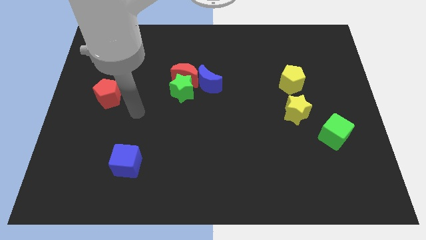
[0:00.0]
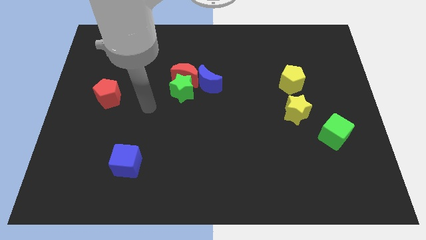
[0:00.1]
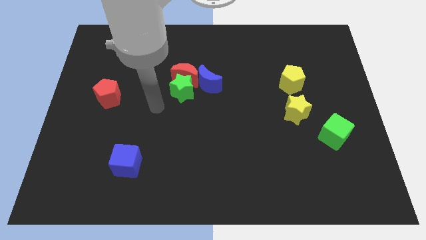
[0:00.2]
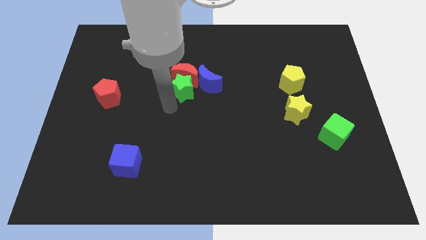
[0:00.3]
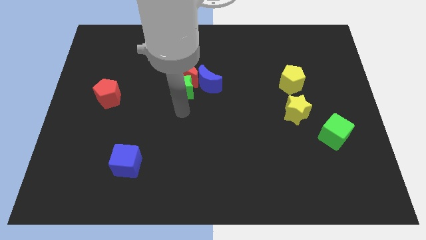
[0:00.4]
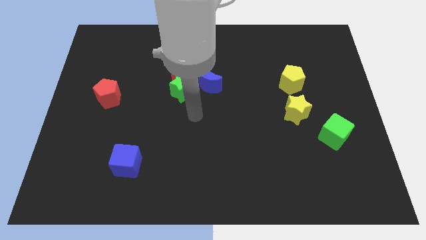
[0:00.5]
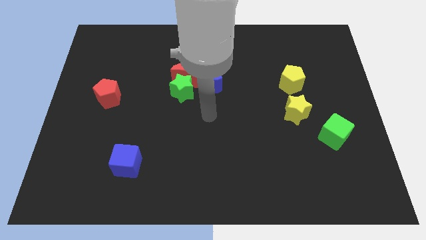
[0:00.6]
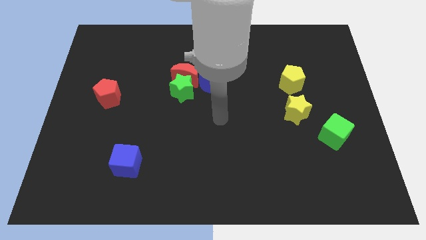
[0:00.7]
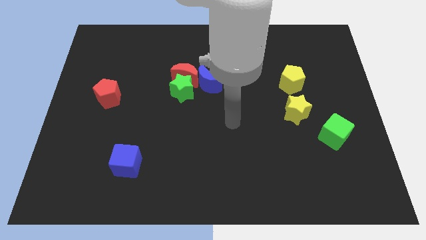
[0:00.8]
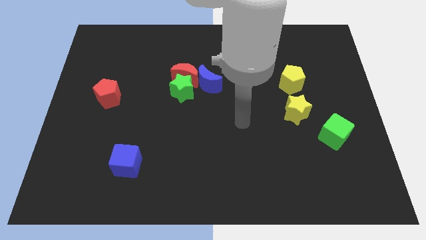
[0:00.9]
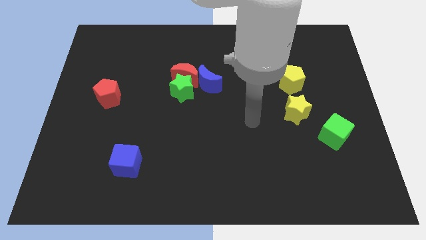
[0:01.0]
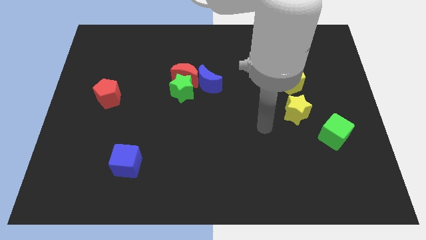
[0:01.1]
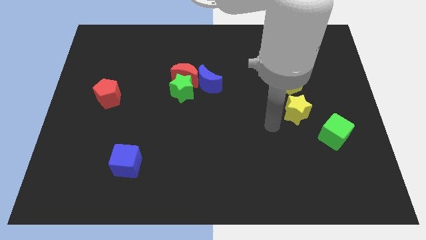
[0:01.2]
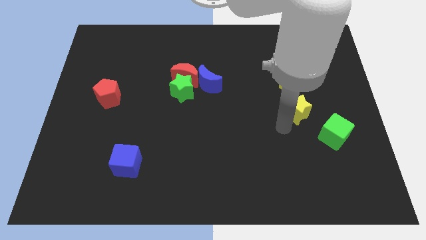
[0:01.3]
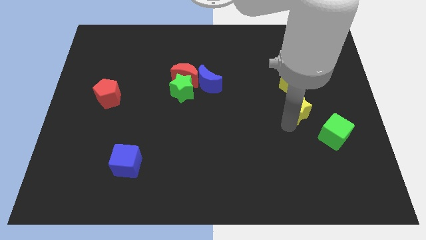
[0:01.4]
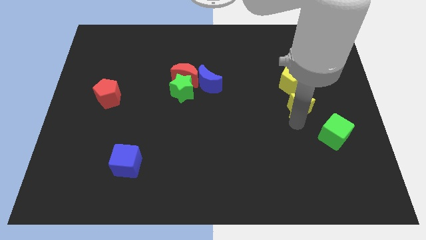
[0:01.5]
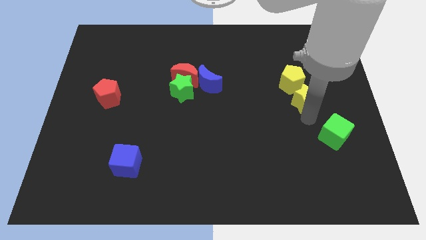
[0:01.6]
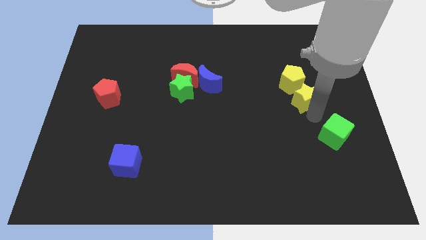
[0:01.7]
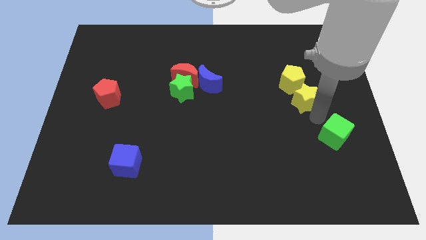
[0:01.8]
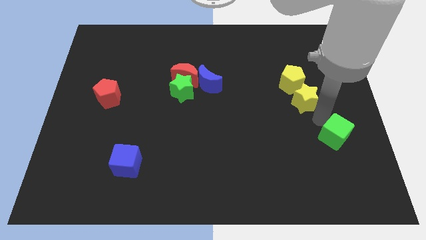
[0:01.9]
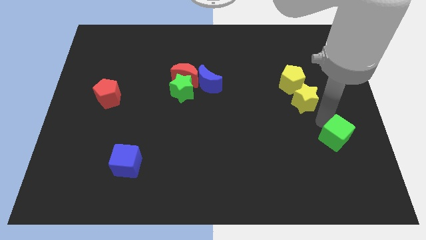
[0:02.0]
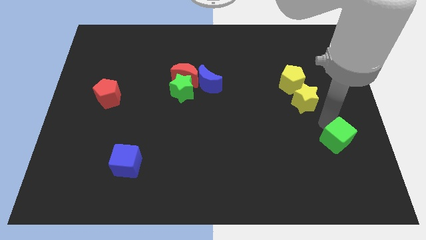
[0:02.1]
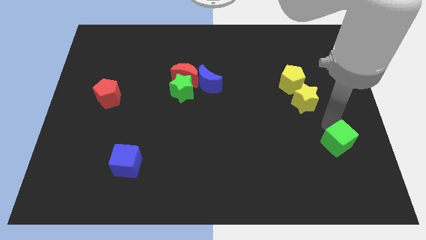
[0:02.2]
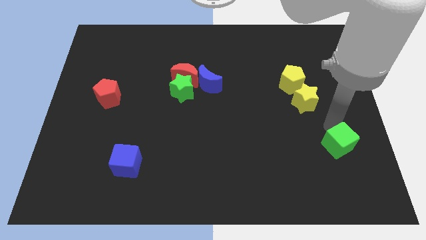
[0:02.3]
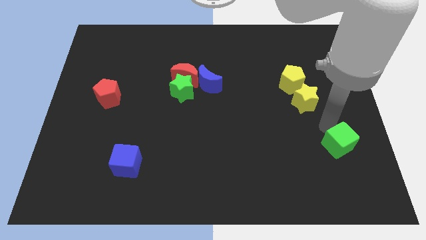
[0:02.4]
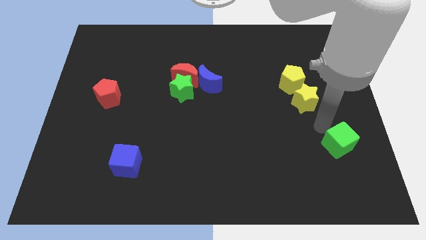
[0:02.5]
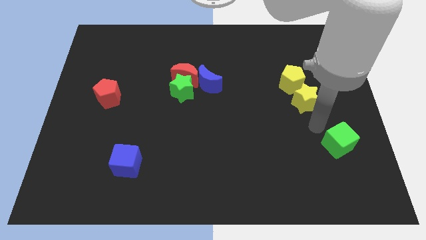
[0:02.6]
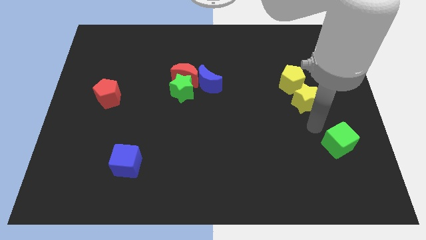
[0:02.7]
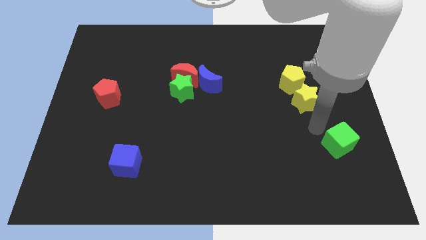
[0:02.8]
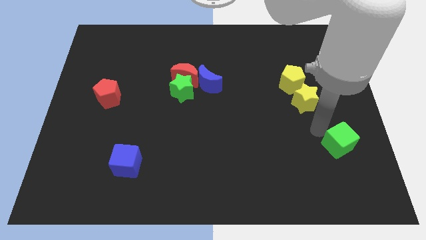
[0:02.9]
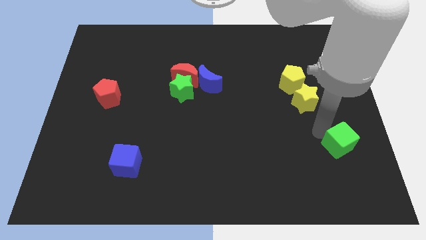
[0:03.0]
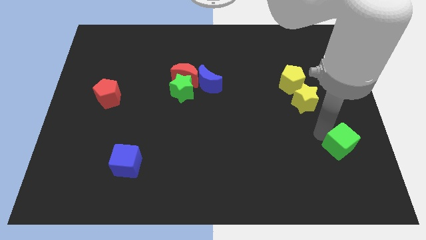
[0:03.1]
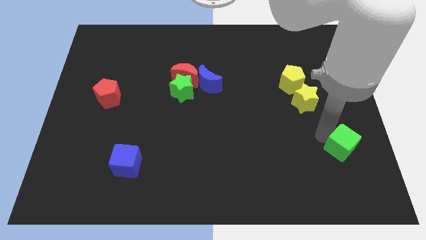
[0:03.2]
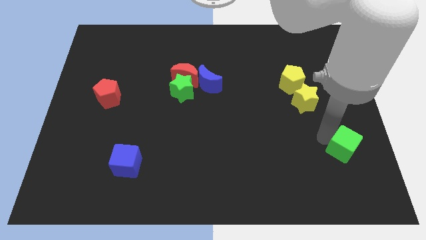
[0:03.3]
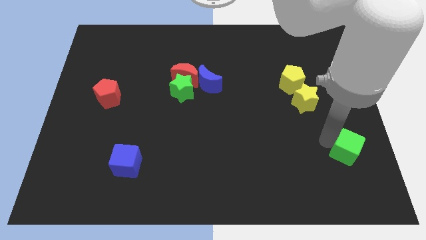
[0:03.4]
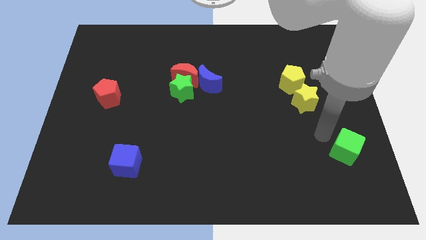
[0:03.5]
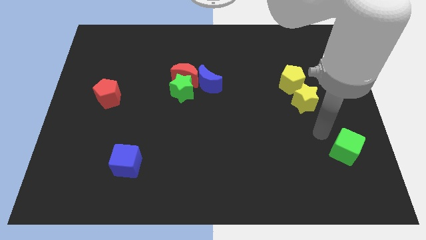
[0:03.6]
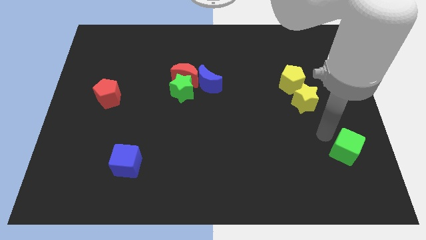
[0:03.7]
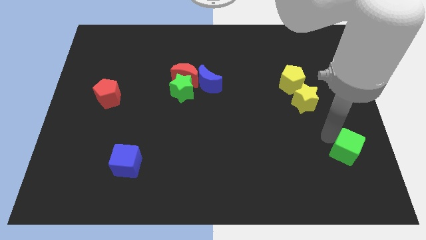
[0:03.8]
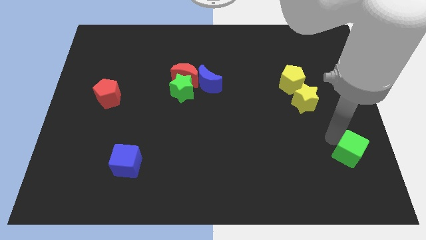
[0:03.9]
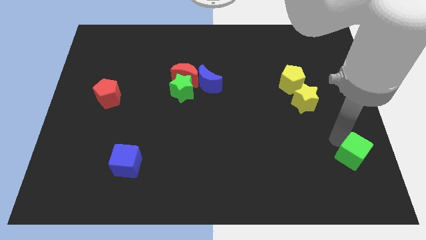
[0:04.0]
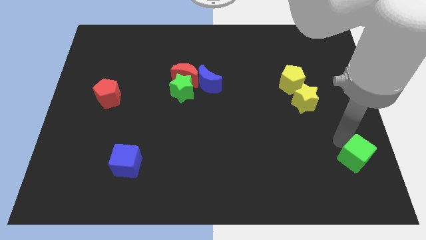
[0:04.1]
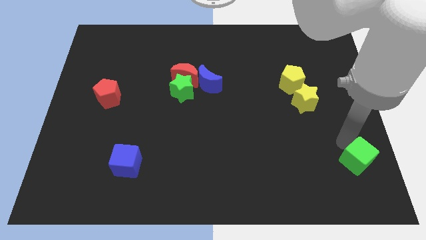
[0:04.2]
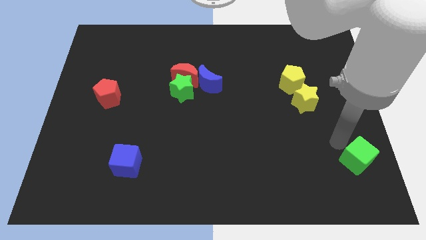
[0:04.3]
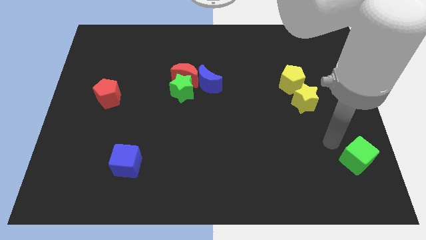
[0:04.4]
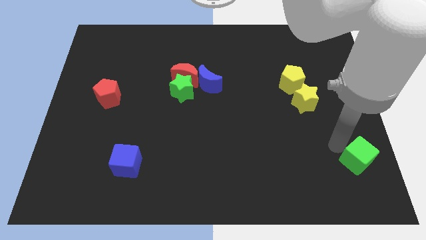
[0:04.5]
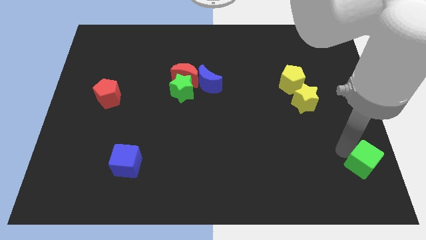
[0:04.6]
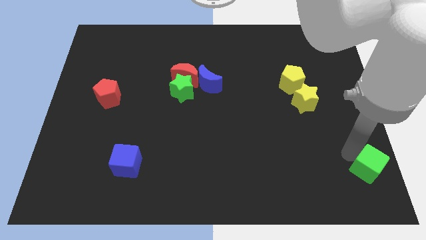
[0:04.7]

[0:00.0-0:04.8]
move the green cube to the bottom right corner

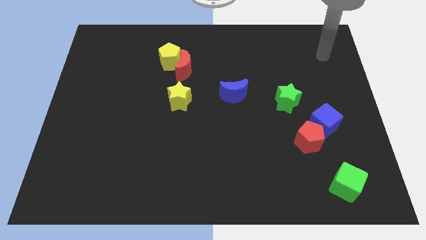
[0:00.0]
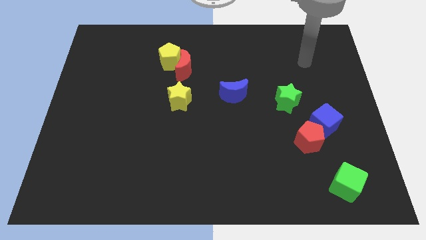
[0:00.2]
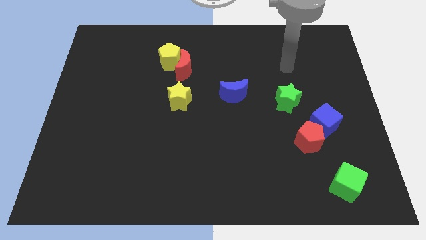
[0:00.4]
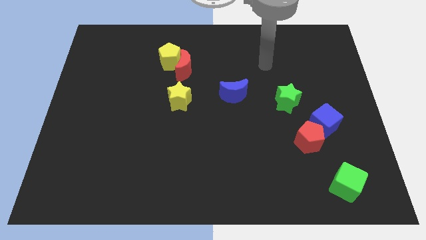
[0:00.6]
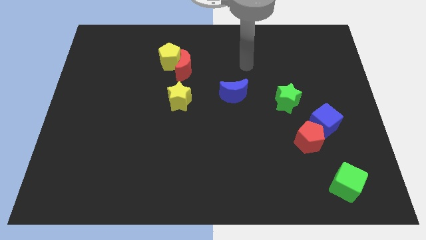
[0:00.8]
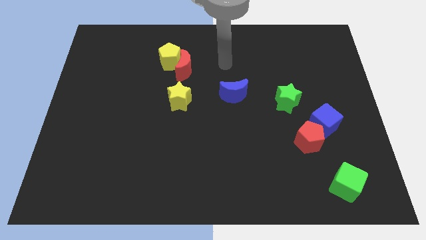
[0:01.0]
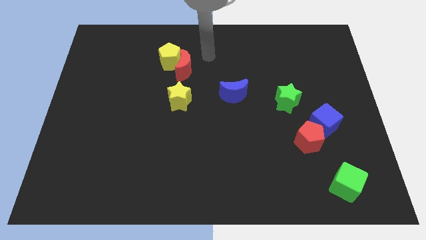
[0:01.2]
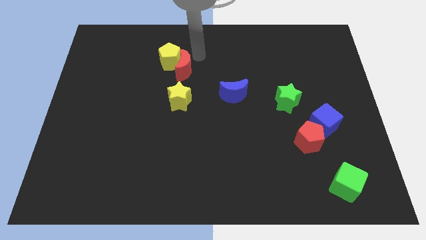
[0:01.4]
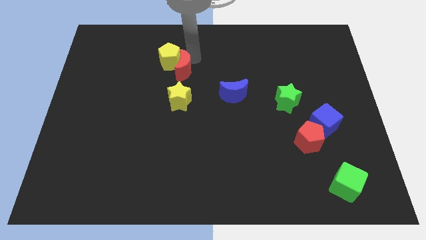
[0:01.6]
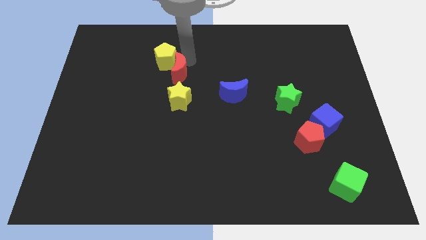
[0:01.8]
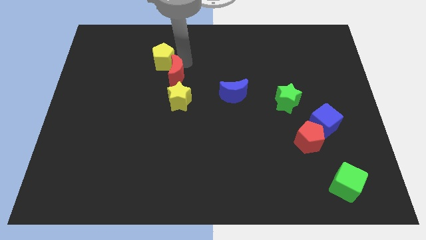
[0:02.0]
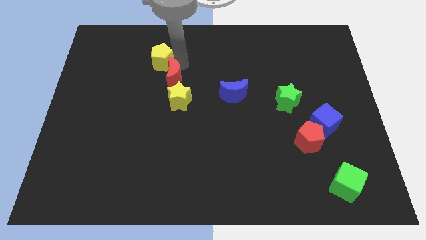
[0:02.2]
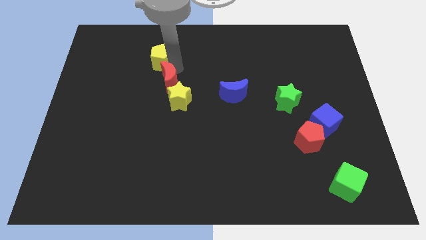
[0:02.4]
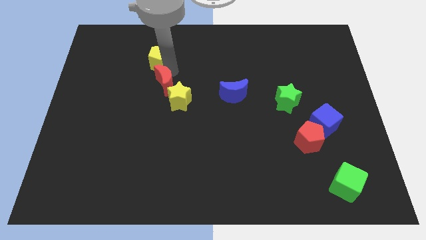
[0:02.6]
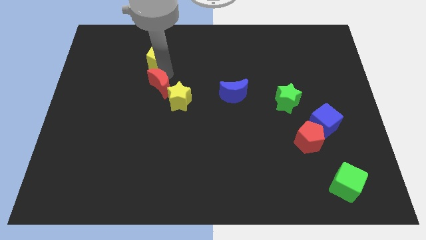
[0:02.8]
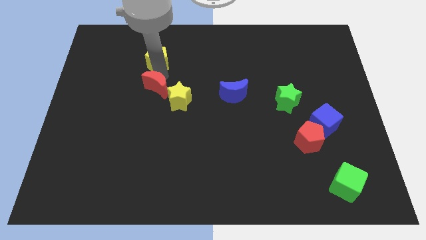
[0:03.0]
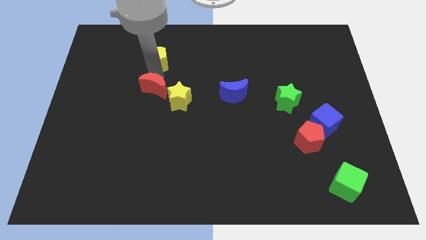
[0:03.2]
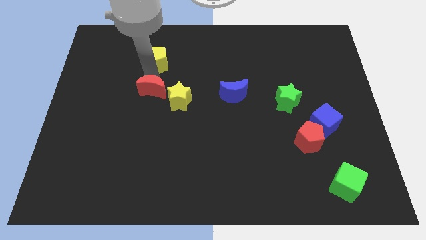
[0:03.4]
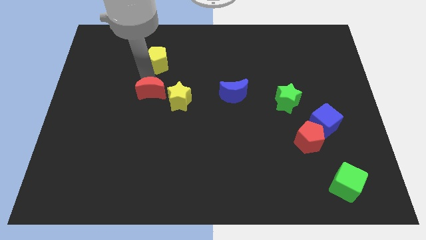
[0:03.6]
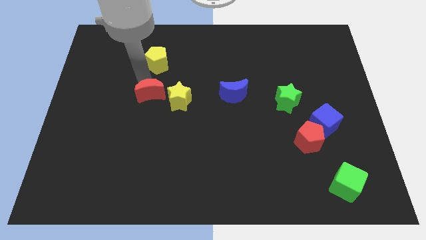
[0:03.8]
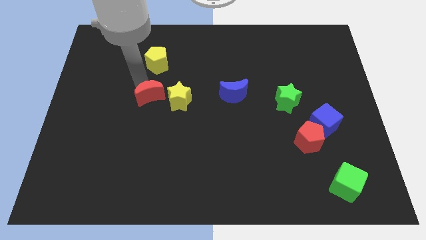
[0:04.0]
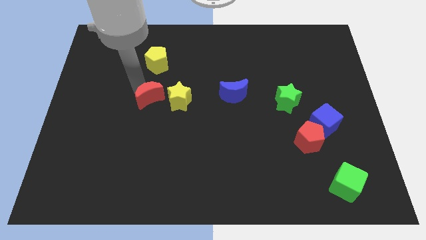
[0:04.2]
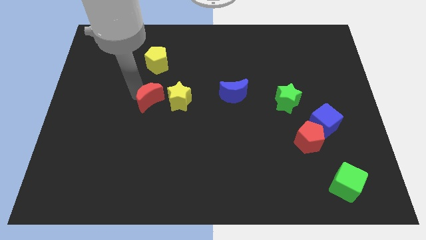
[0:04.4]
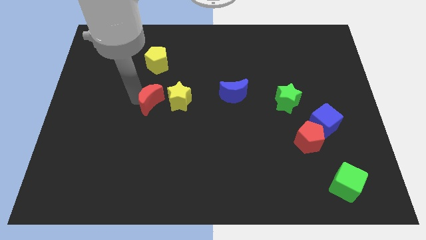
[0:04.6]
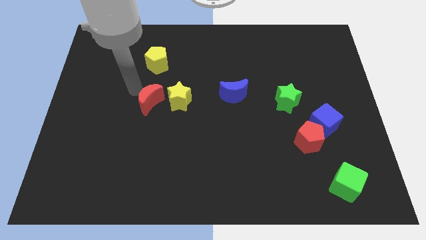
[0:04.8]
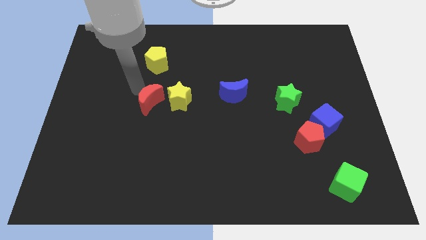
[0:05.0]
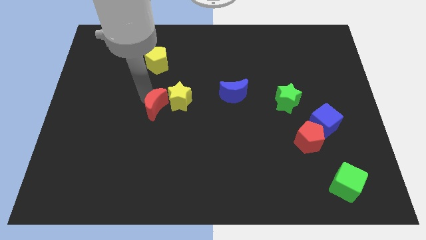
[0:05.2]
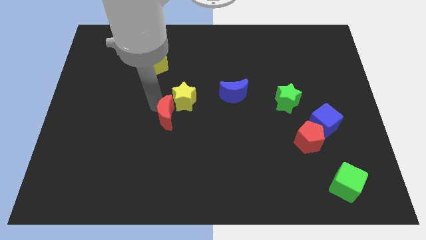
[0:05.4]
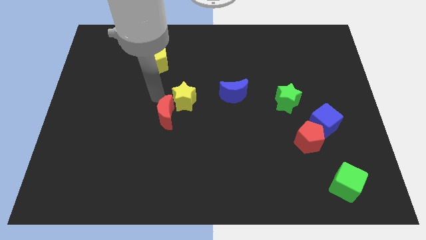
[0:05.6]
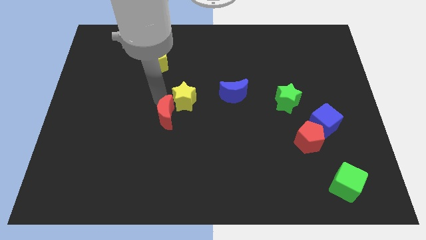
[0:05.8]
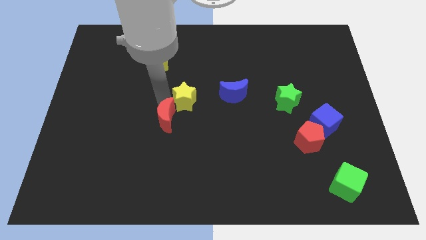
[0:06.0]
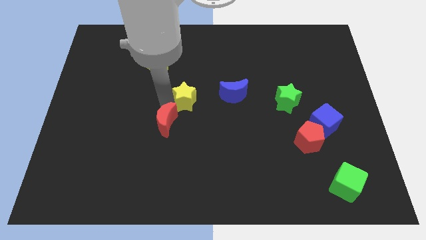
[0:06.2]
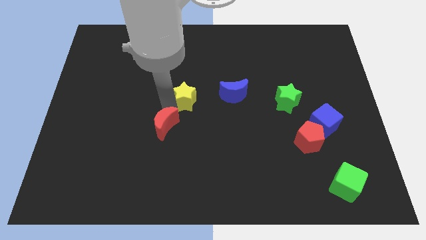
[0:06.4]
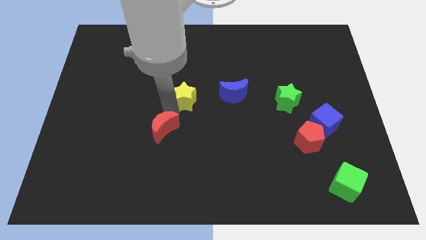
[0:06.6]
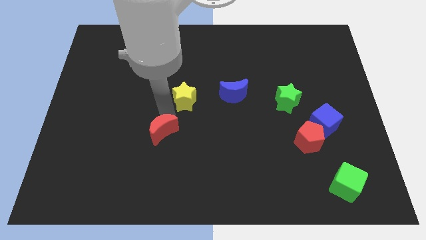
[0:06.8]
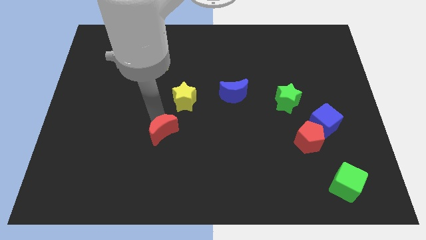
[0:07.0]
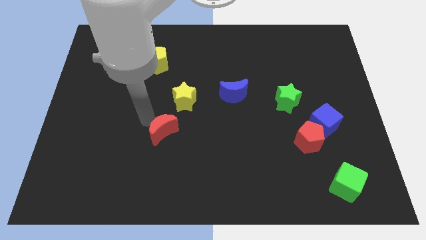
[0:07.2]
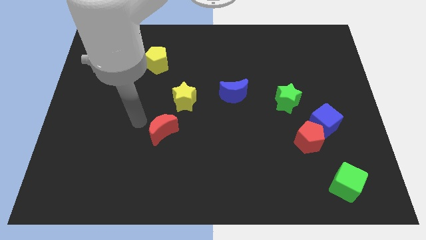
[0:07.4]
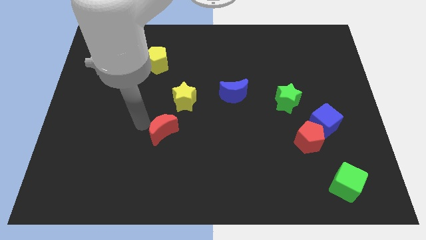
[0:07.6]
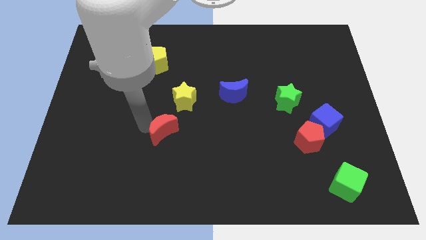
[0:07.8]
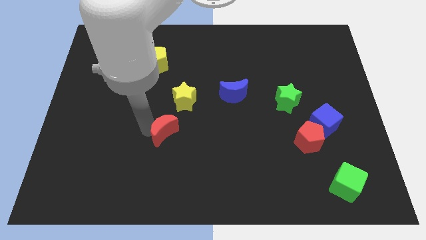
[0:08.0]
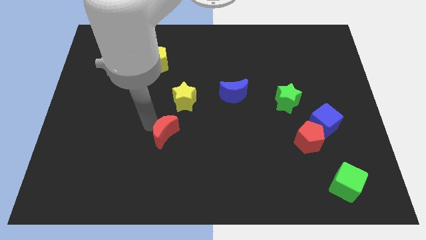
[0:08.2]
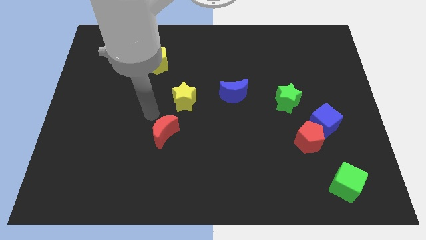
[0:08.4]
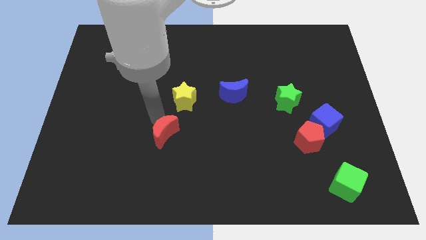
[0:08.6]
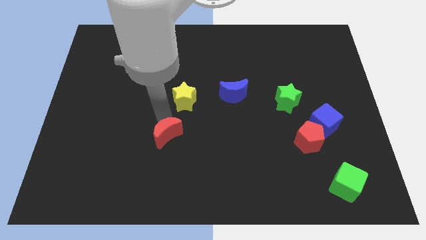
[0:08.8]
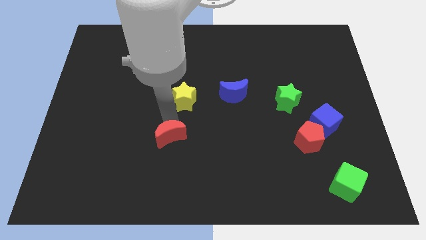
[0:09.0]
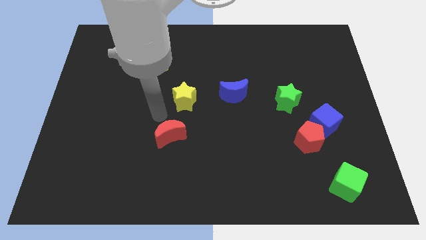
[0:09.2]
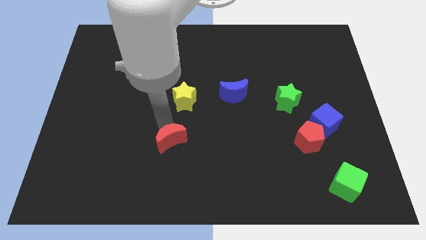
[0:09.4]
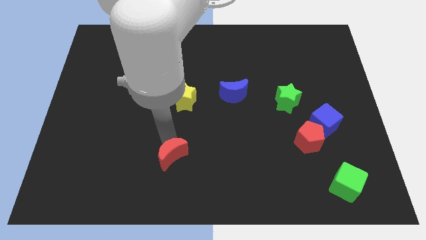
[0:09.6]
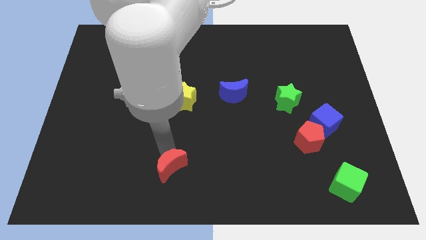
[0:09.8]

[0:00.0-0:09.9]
put the red moon to the bottom
